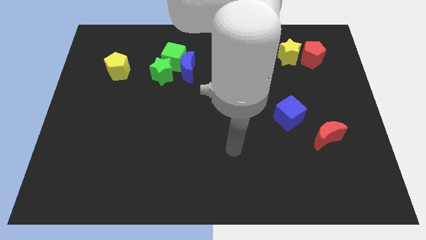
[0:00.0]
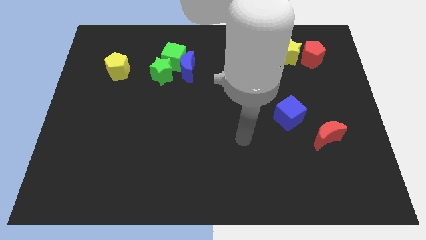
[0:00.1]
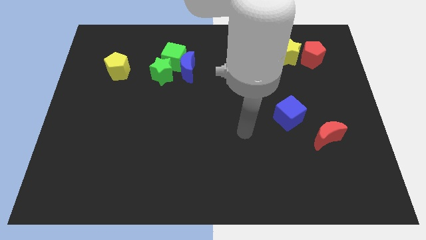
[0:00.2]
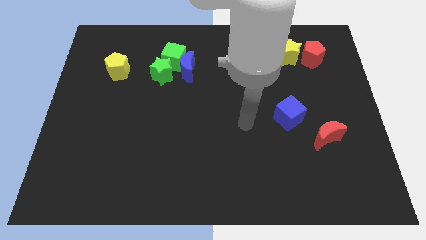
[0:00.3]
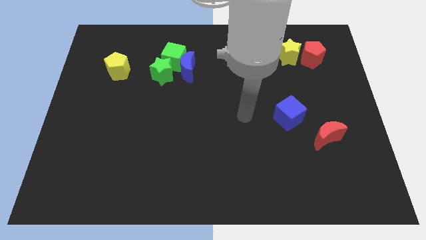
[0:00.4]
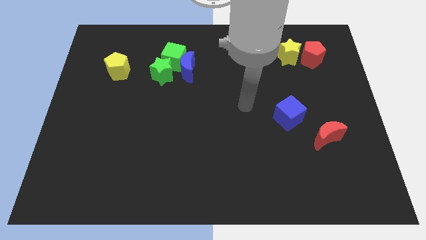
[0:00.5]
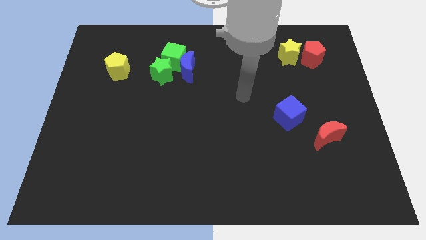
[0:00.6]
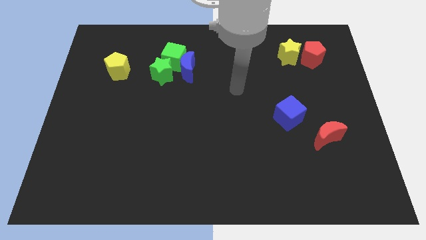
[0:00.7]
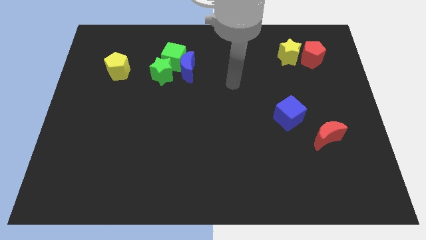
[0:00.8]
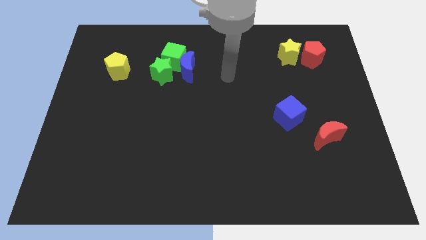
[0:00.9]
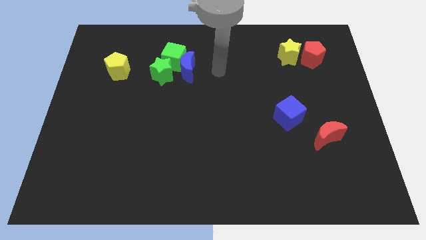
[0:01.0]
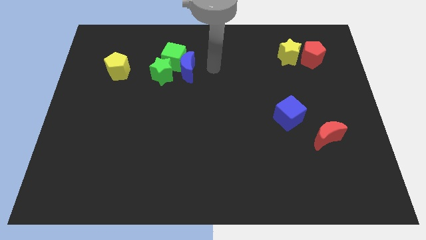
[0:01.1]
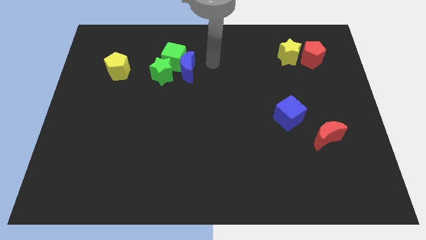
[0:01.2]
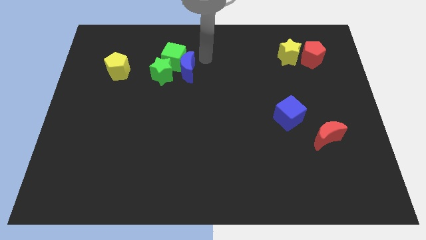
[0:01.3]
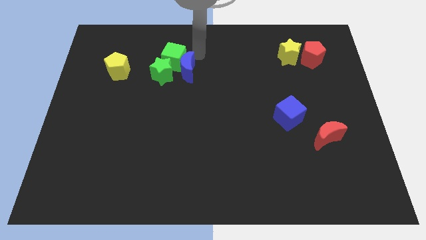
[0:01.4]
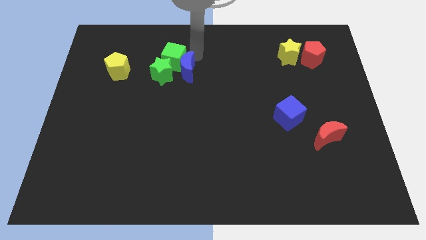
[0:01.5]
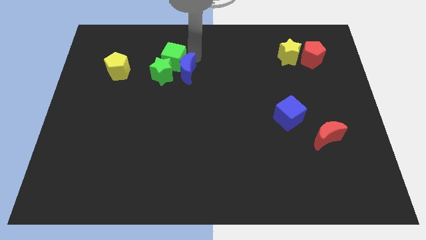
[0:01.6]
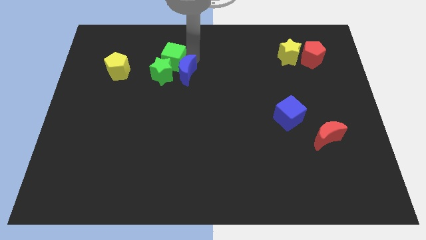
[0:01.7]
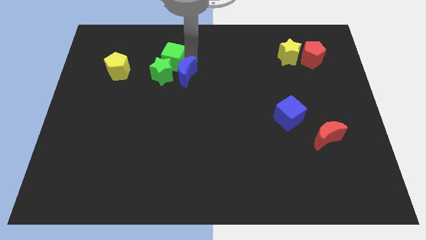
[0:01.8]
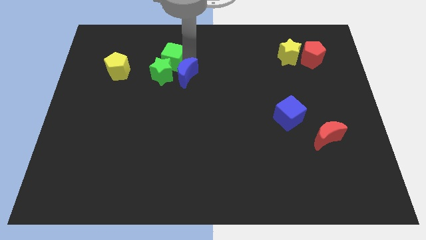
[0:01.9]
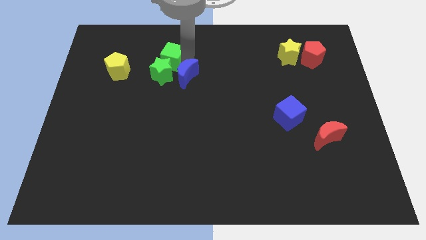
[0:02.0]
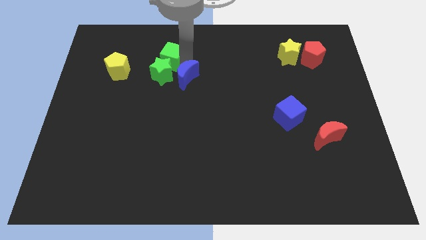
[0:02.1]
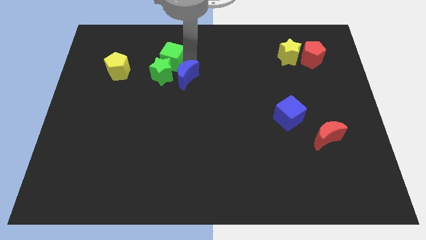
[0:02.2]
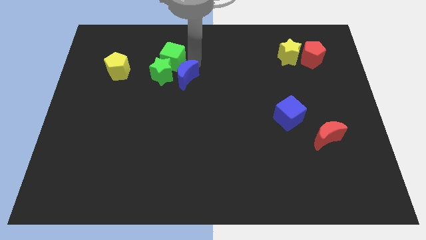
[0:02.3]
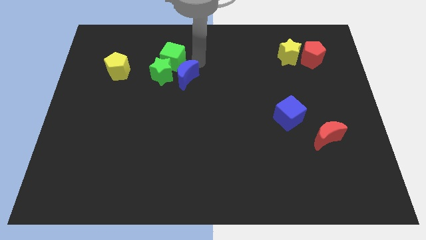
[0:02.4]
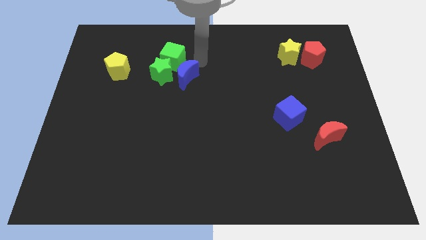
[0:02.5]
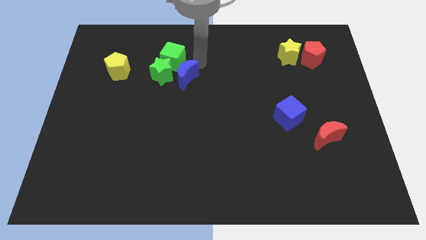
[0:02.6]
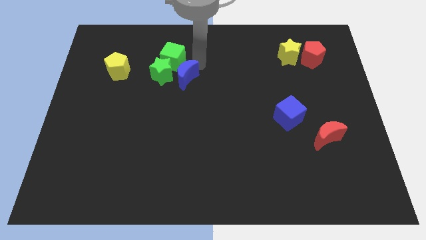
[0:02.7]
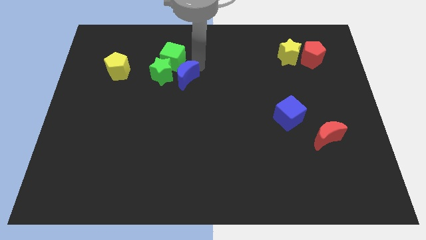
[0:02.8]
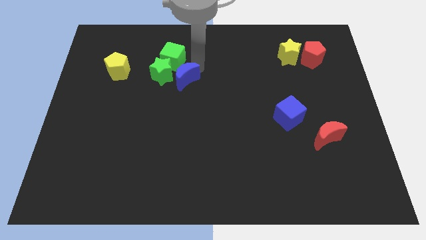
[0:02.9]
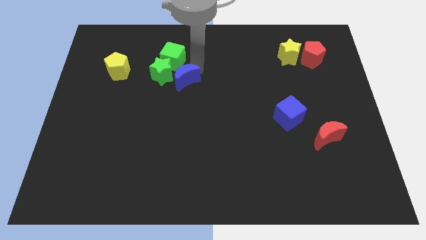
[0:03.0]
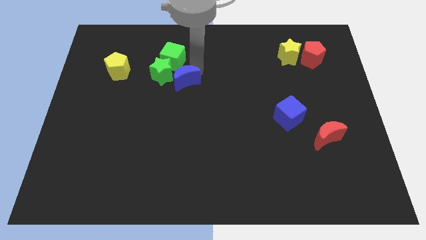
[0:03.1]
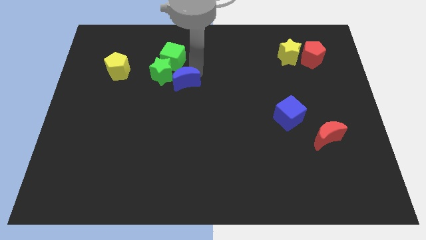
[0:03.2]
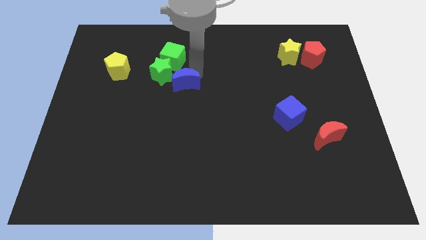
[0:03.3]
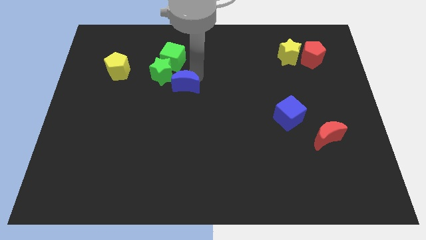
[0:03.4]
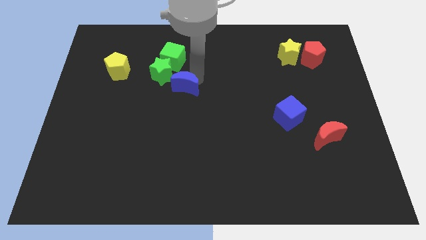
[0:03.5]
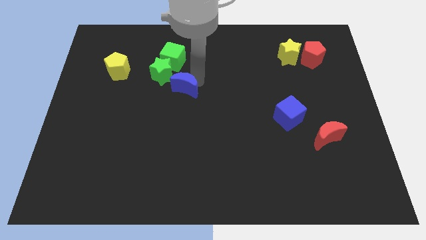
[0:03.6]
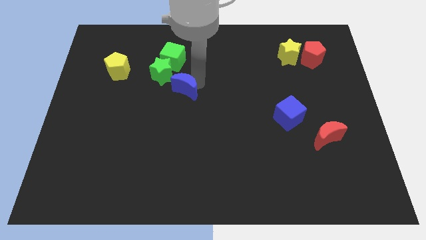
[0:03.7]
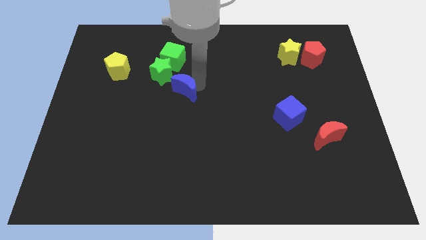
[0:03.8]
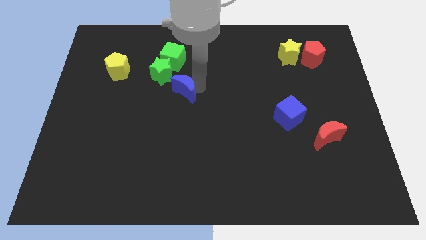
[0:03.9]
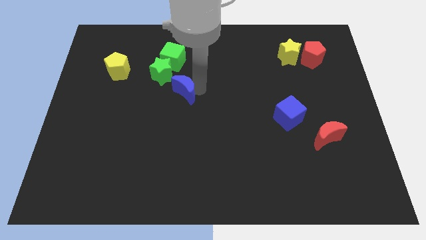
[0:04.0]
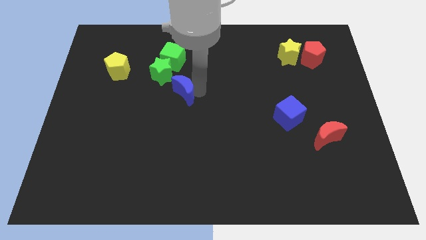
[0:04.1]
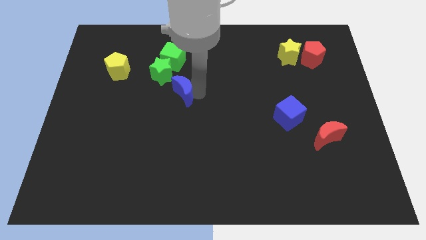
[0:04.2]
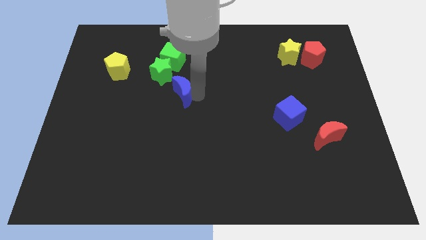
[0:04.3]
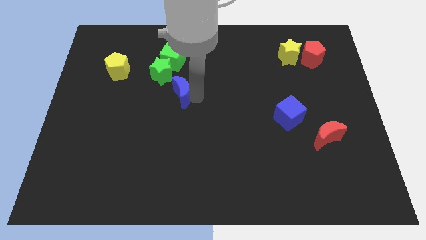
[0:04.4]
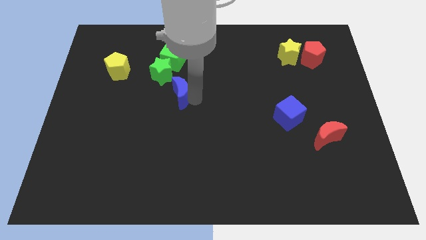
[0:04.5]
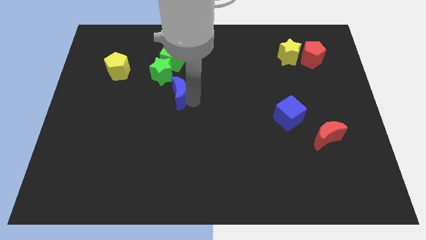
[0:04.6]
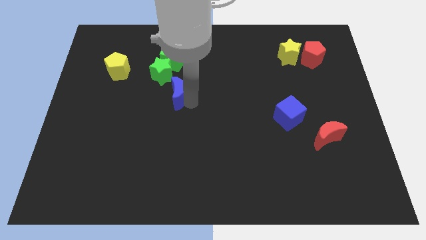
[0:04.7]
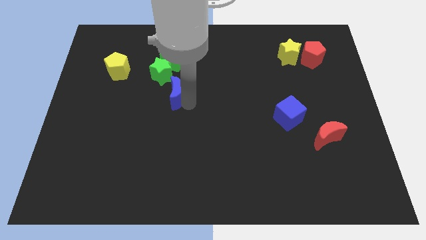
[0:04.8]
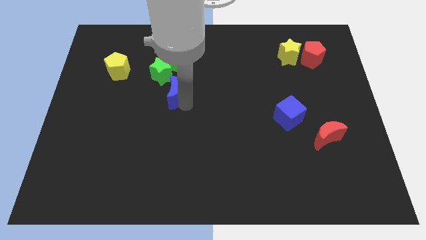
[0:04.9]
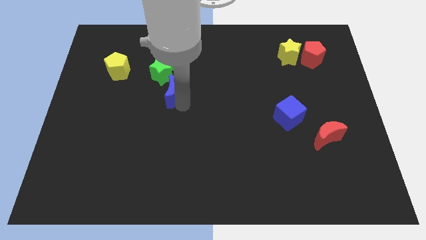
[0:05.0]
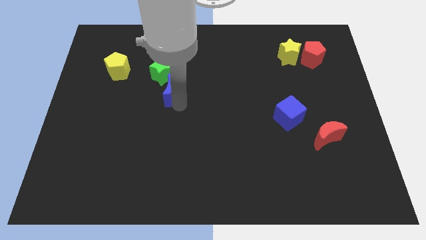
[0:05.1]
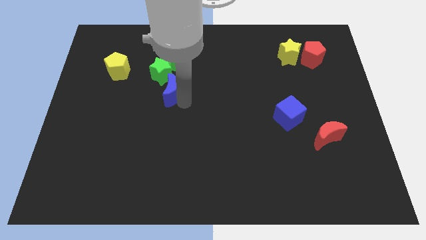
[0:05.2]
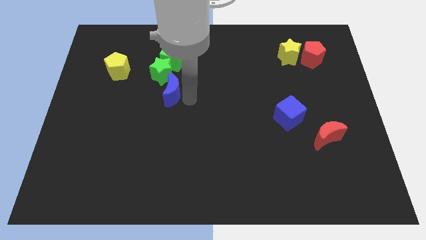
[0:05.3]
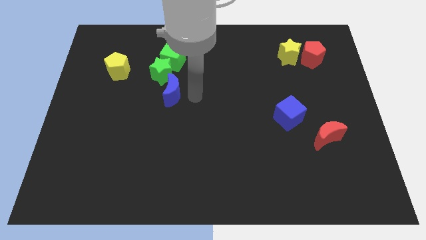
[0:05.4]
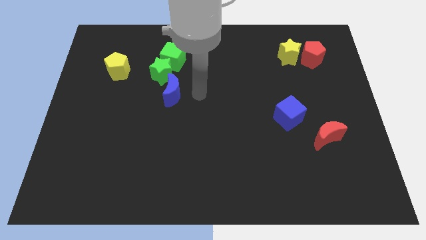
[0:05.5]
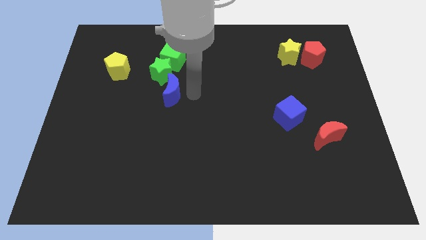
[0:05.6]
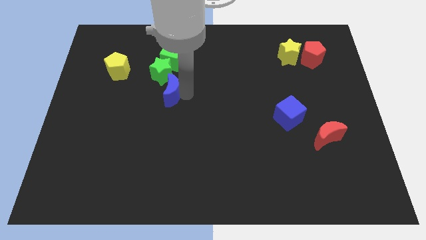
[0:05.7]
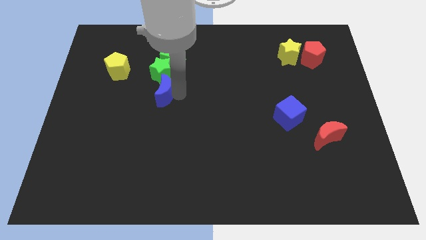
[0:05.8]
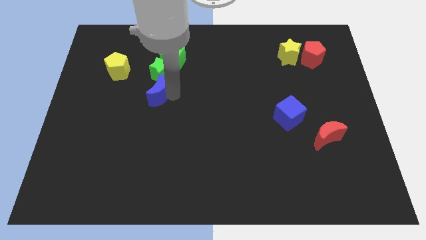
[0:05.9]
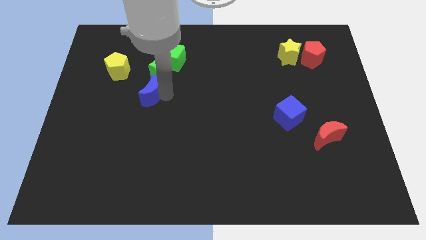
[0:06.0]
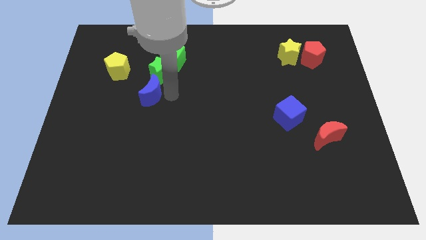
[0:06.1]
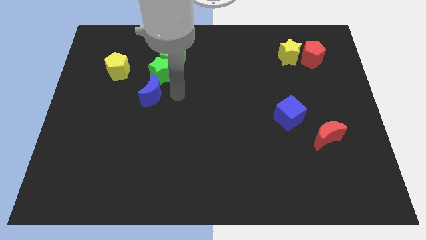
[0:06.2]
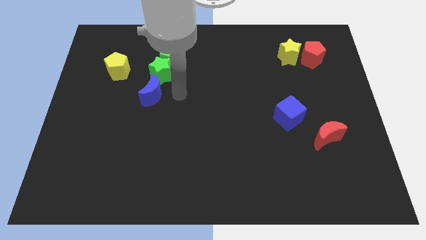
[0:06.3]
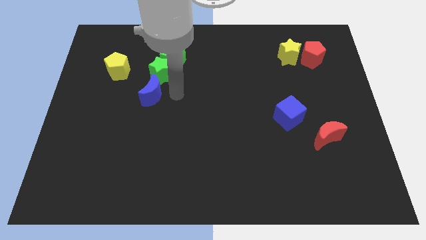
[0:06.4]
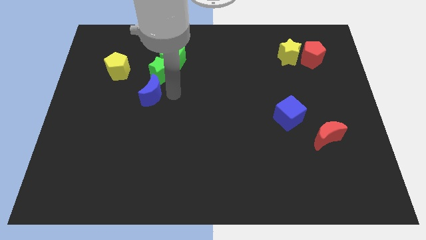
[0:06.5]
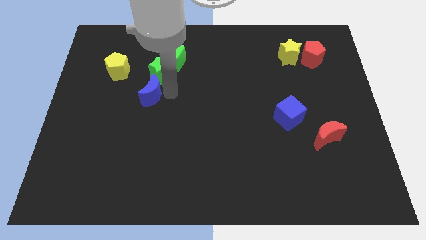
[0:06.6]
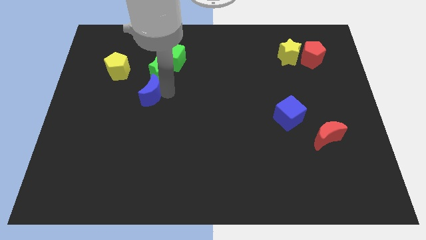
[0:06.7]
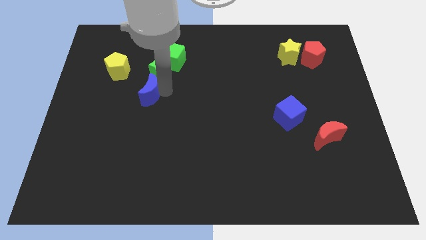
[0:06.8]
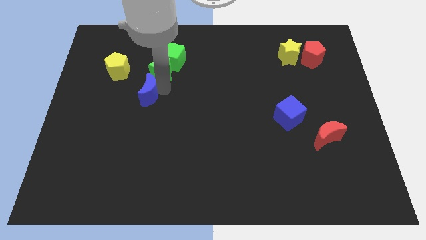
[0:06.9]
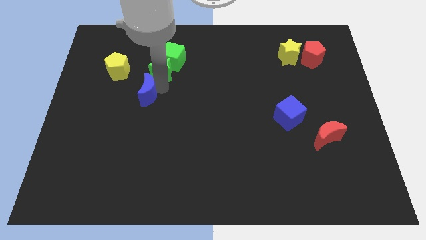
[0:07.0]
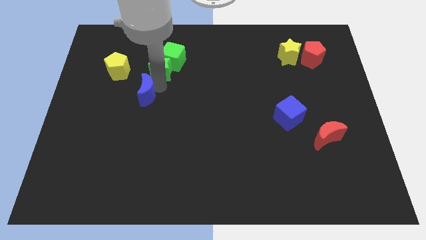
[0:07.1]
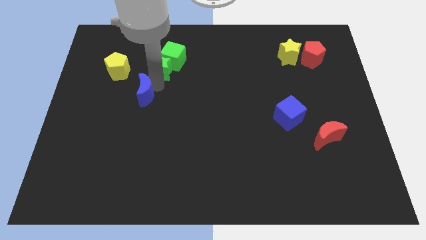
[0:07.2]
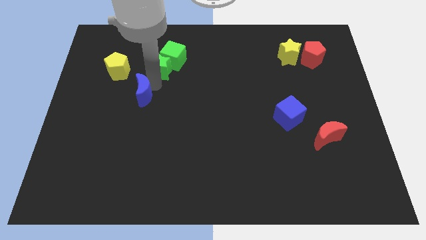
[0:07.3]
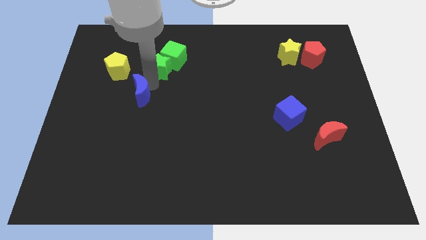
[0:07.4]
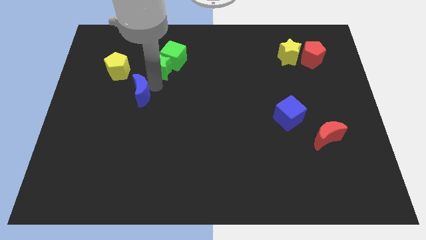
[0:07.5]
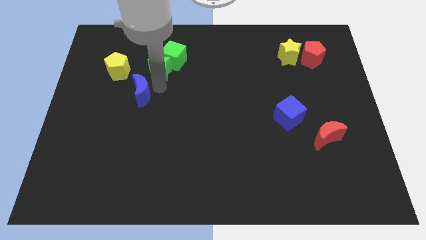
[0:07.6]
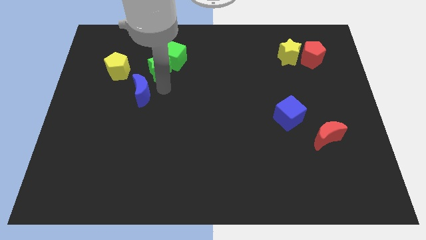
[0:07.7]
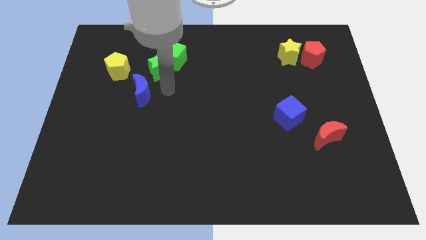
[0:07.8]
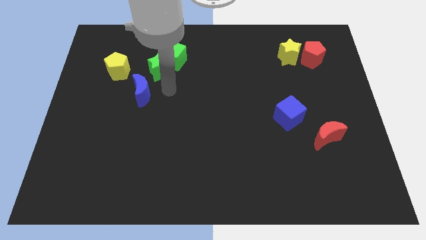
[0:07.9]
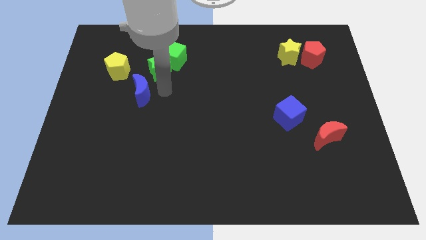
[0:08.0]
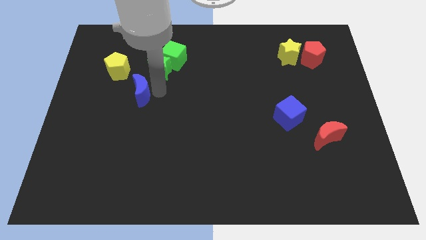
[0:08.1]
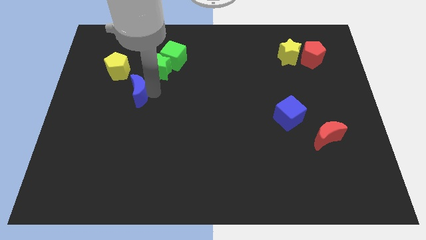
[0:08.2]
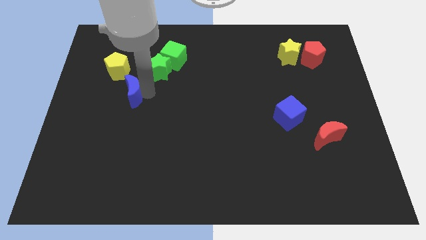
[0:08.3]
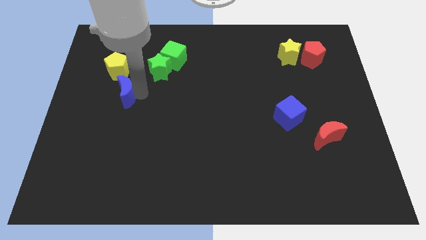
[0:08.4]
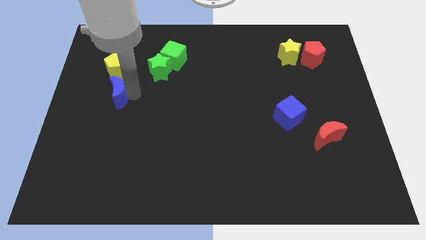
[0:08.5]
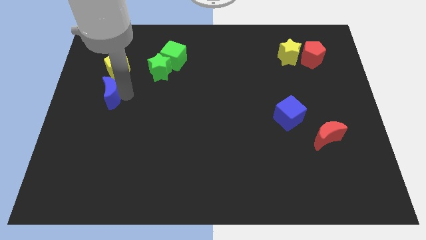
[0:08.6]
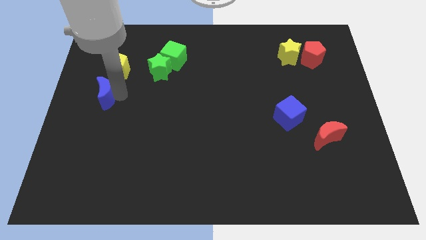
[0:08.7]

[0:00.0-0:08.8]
move the blue moon to the left side of the board
